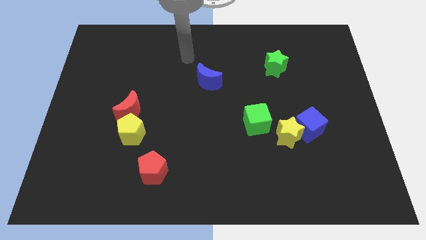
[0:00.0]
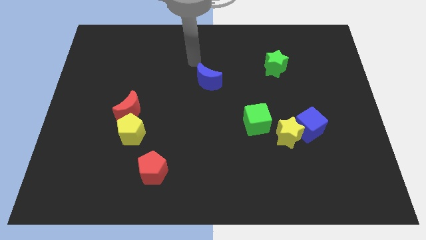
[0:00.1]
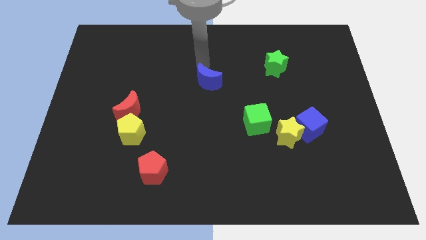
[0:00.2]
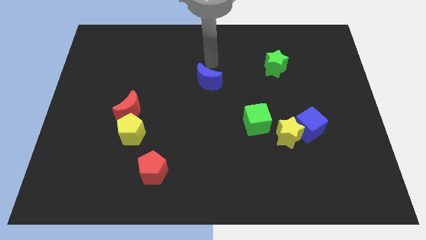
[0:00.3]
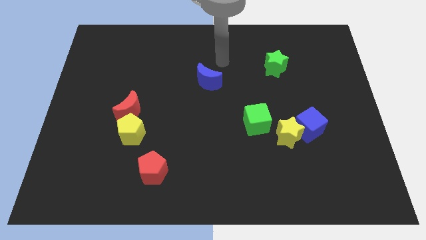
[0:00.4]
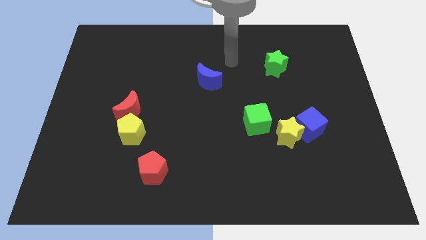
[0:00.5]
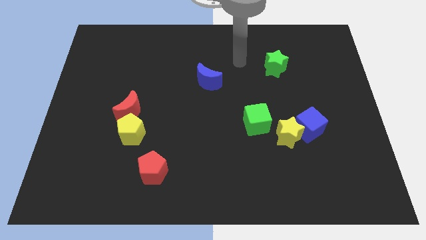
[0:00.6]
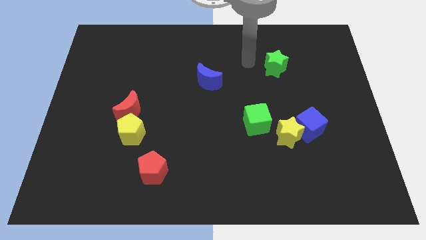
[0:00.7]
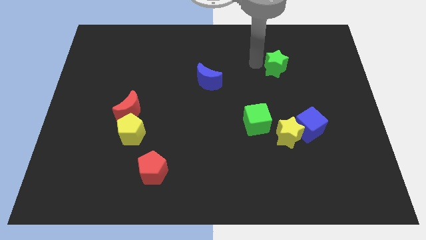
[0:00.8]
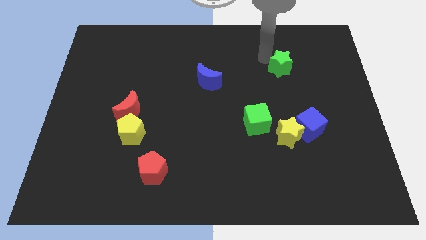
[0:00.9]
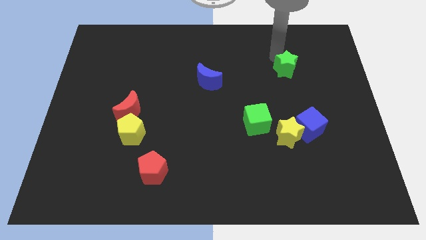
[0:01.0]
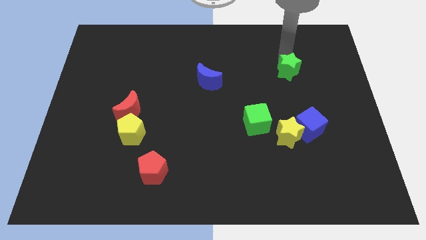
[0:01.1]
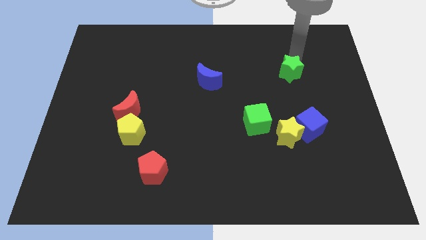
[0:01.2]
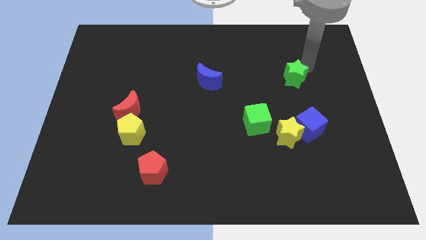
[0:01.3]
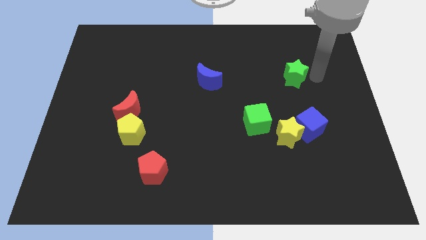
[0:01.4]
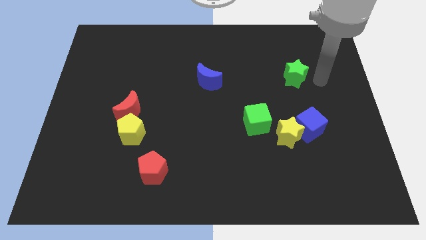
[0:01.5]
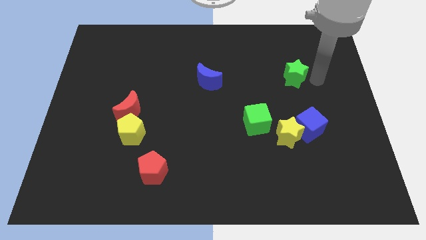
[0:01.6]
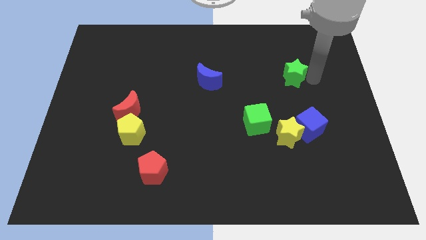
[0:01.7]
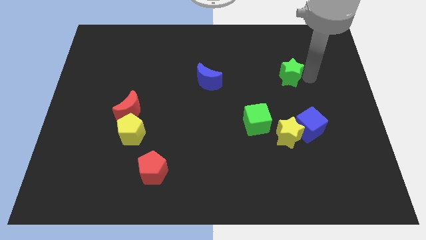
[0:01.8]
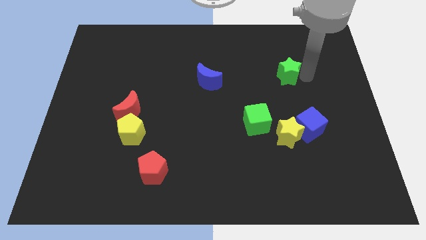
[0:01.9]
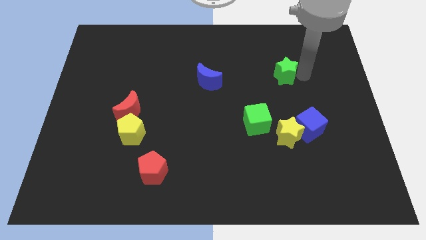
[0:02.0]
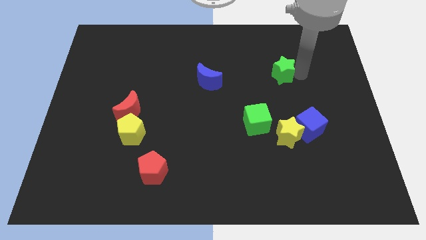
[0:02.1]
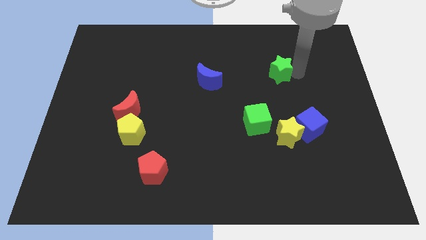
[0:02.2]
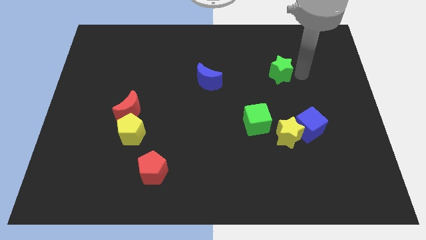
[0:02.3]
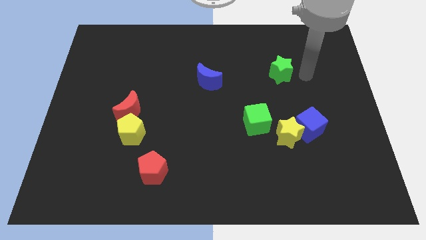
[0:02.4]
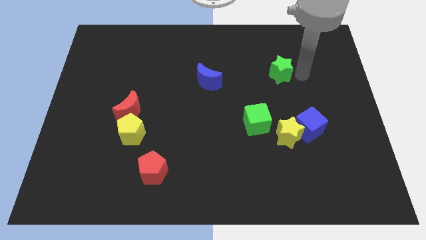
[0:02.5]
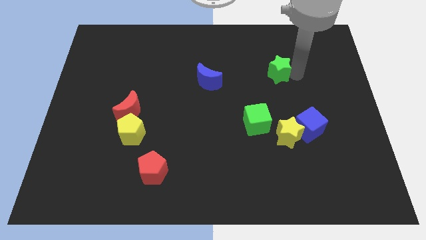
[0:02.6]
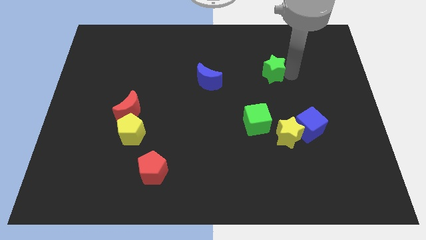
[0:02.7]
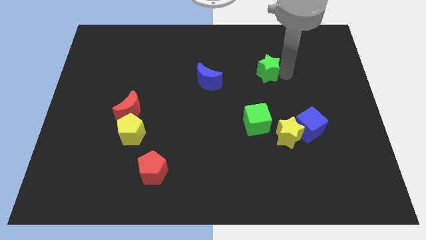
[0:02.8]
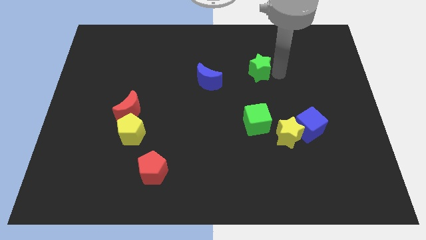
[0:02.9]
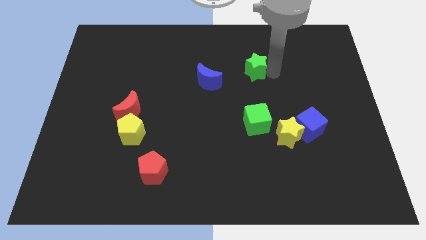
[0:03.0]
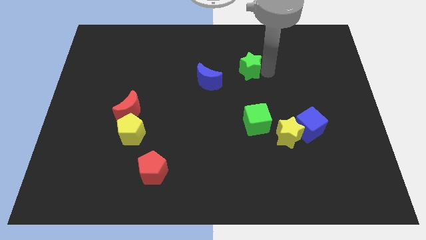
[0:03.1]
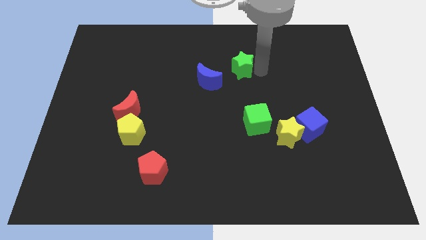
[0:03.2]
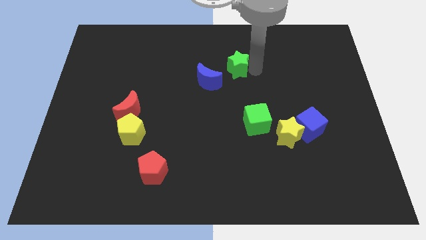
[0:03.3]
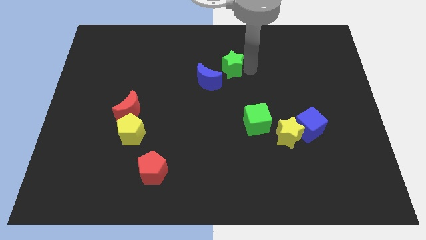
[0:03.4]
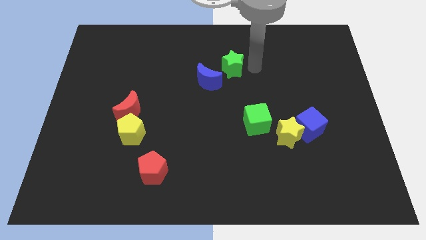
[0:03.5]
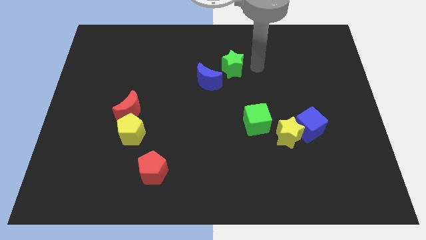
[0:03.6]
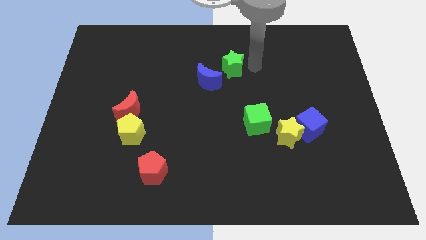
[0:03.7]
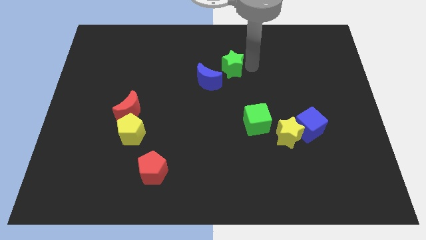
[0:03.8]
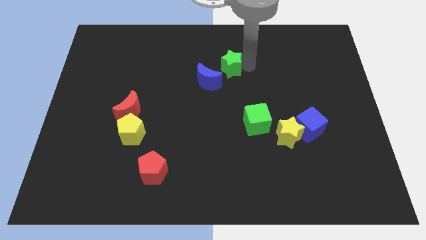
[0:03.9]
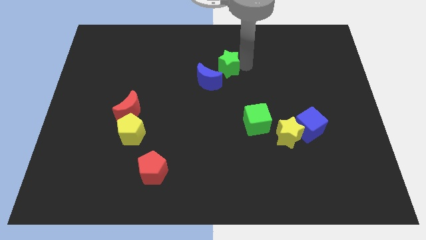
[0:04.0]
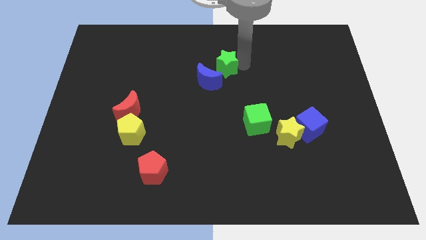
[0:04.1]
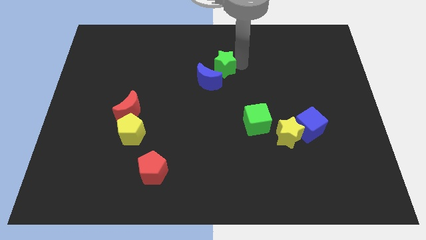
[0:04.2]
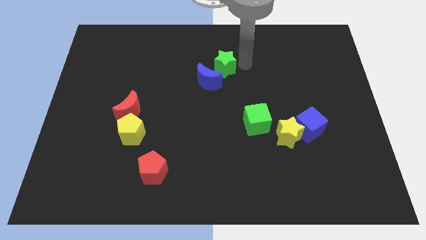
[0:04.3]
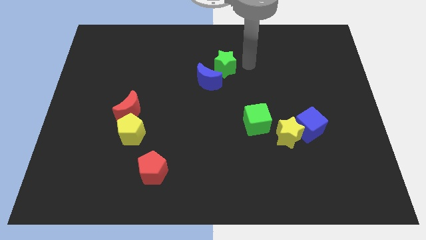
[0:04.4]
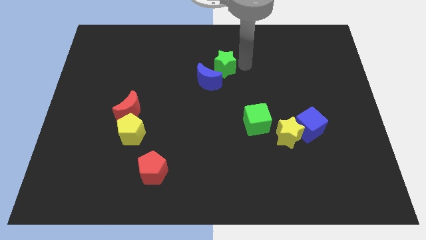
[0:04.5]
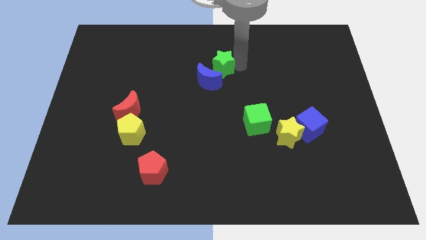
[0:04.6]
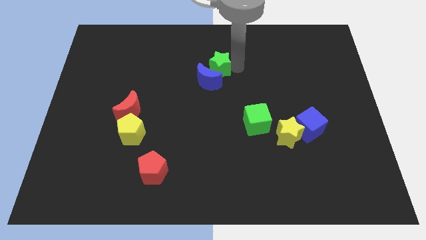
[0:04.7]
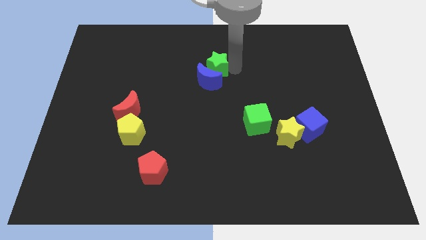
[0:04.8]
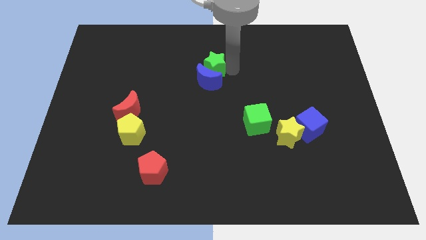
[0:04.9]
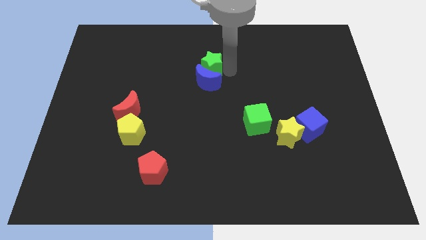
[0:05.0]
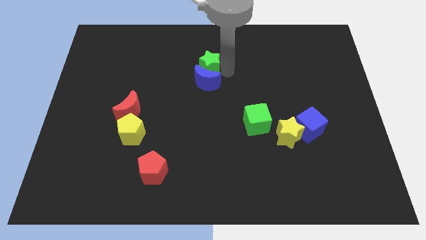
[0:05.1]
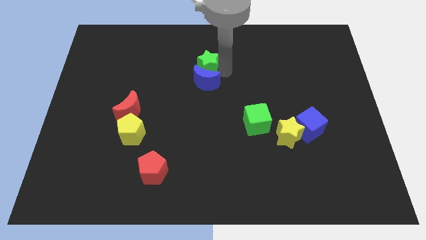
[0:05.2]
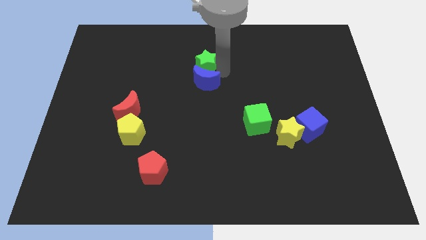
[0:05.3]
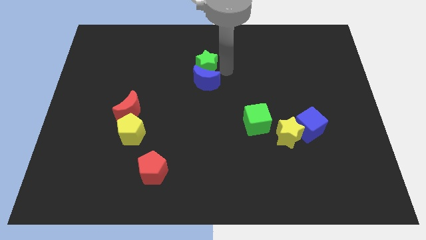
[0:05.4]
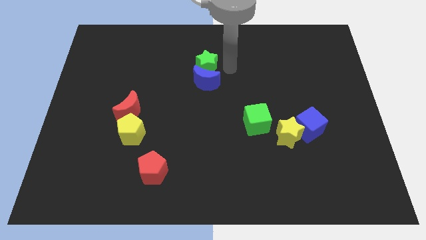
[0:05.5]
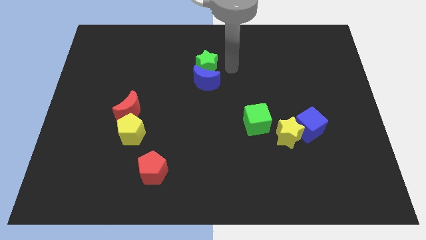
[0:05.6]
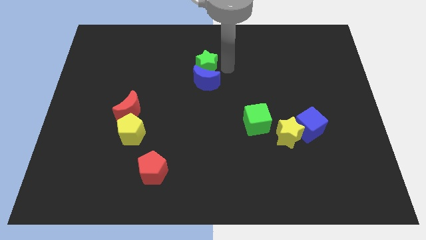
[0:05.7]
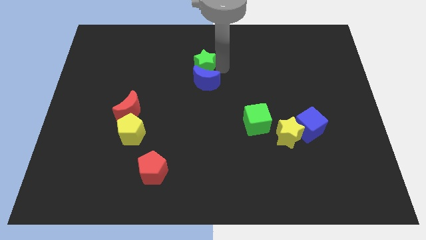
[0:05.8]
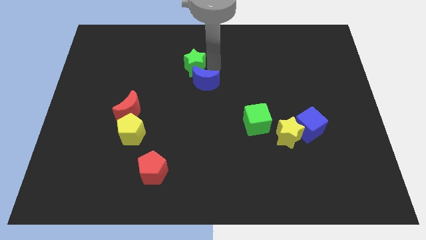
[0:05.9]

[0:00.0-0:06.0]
move the green star left

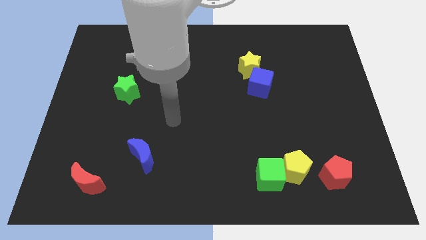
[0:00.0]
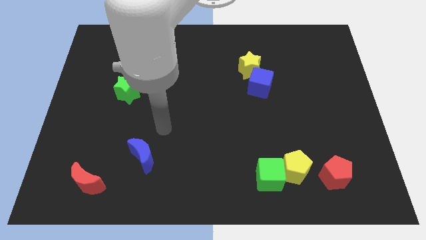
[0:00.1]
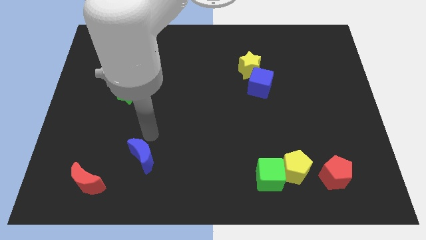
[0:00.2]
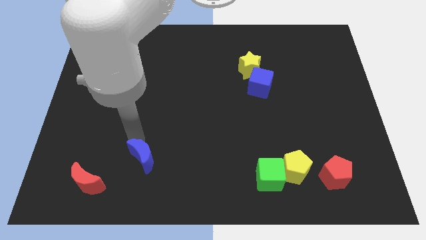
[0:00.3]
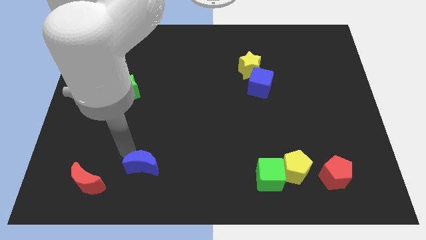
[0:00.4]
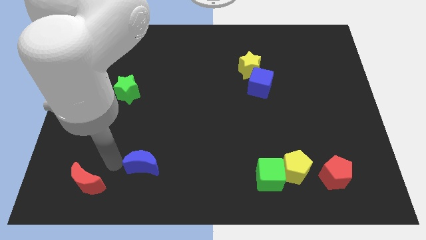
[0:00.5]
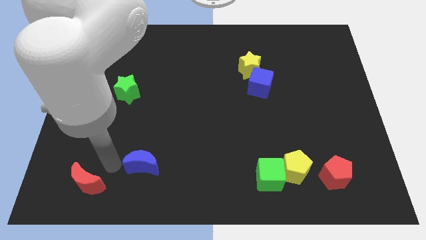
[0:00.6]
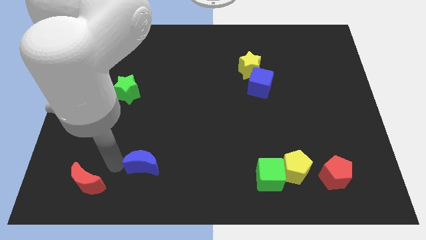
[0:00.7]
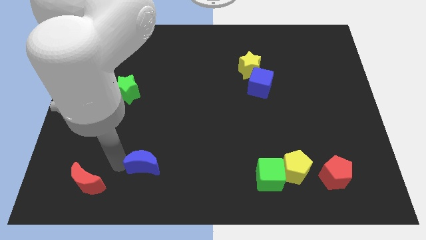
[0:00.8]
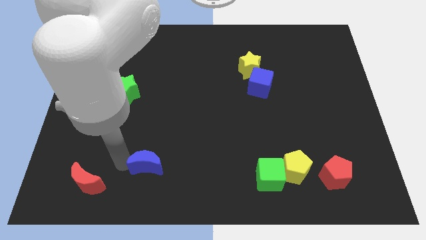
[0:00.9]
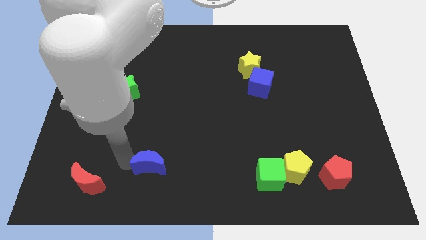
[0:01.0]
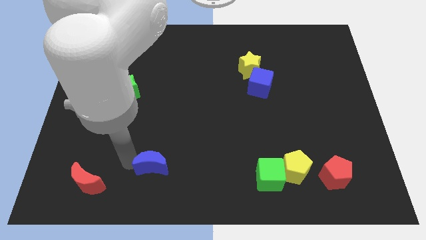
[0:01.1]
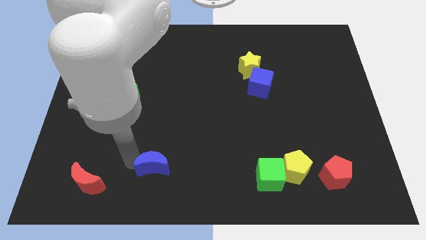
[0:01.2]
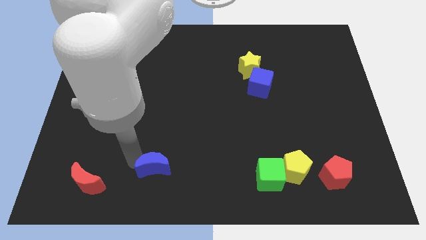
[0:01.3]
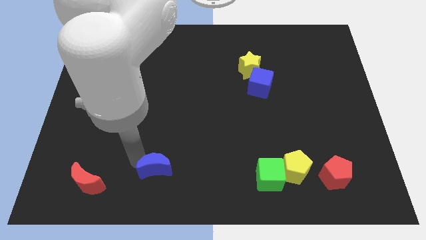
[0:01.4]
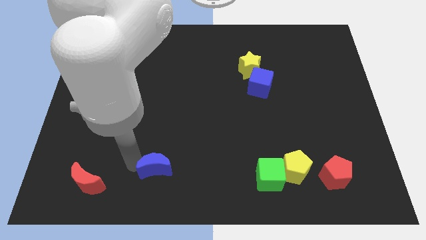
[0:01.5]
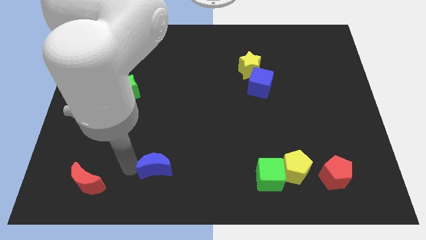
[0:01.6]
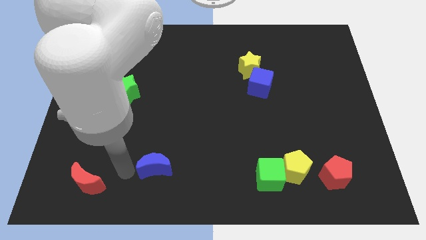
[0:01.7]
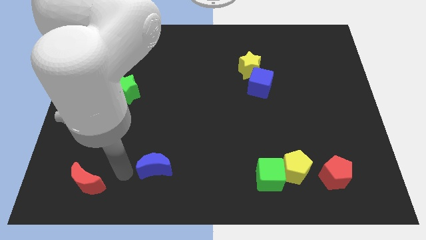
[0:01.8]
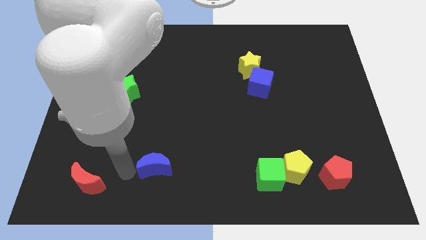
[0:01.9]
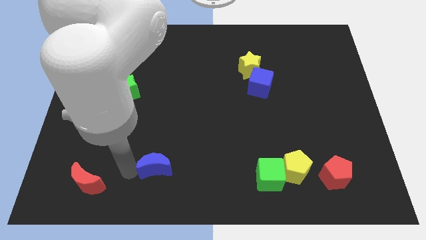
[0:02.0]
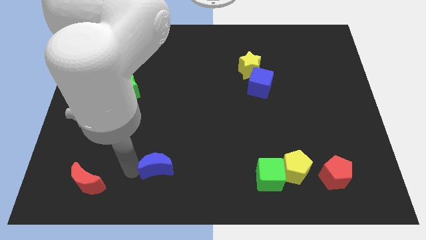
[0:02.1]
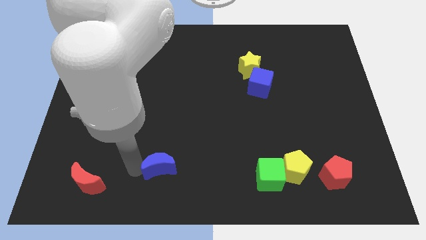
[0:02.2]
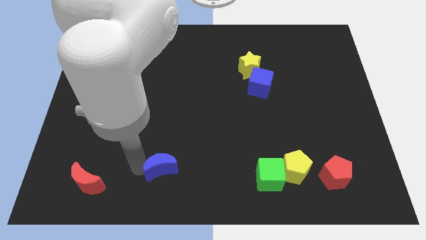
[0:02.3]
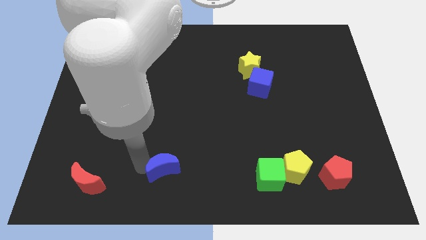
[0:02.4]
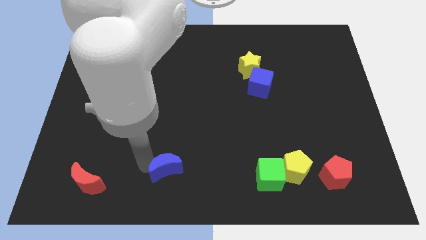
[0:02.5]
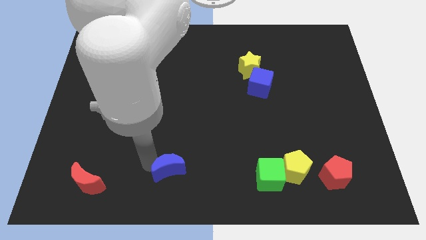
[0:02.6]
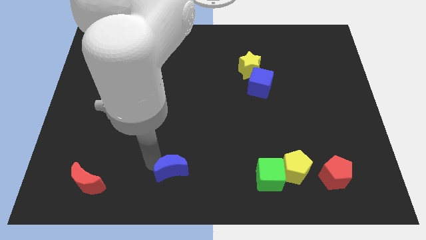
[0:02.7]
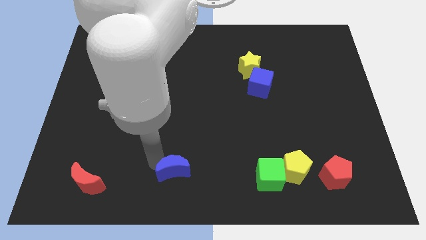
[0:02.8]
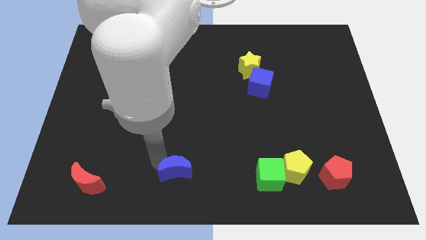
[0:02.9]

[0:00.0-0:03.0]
slightly push the blue moon right
